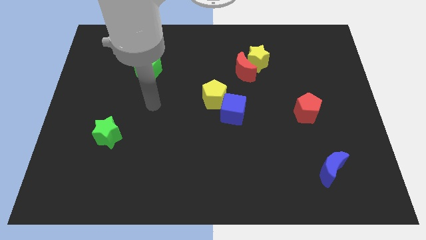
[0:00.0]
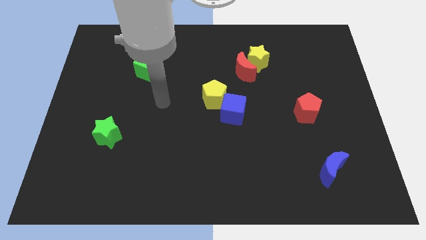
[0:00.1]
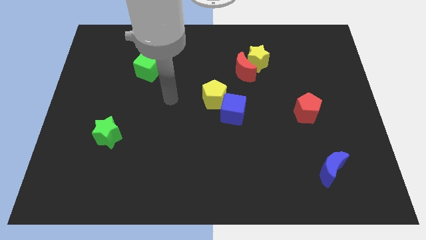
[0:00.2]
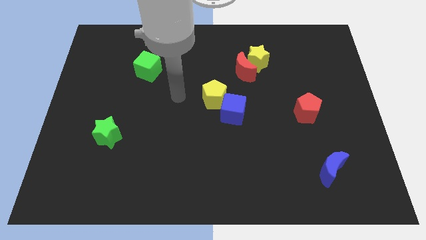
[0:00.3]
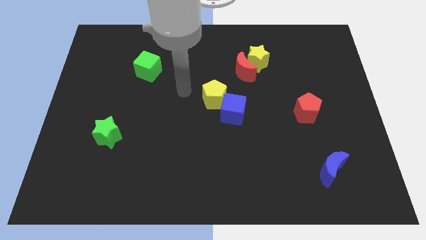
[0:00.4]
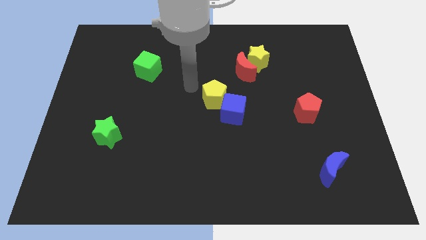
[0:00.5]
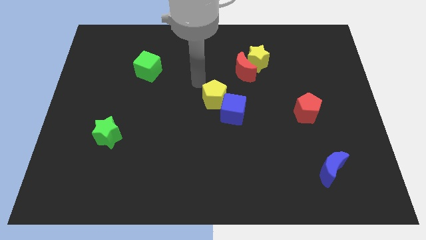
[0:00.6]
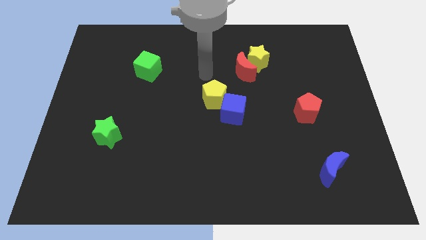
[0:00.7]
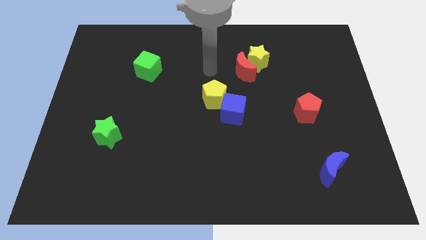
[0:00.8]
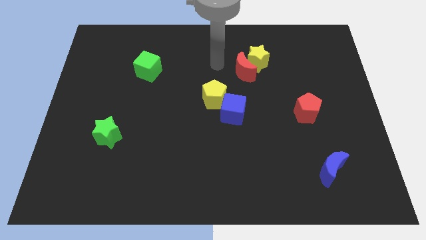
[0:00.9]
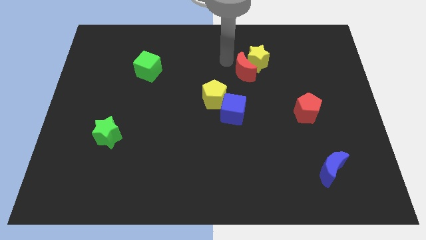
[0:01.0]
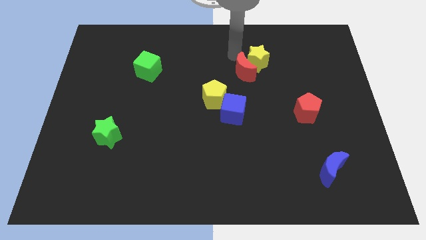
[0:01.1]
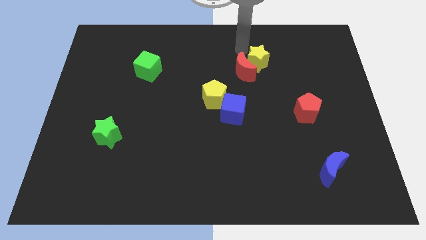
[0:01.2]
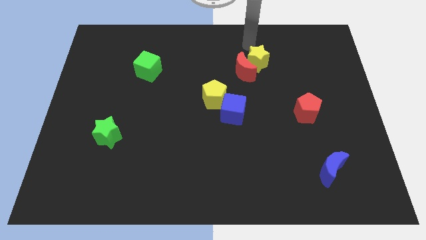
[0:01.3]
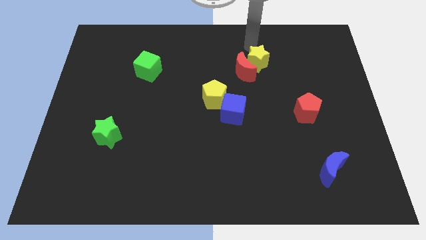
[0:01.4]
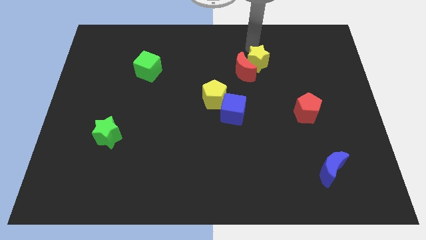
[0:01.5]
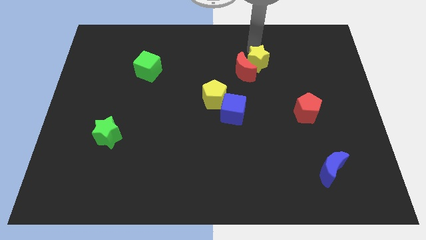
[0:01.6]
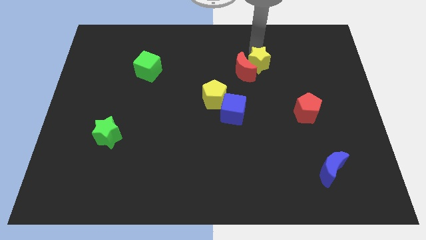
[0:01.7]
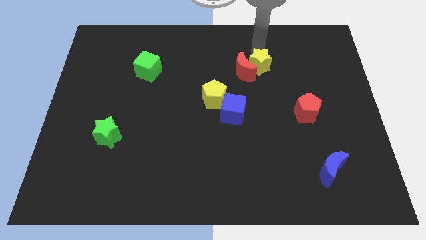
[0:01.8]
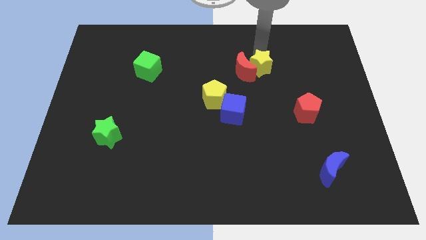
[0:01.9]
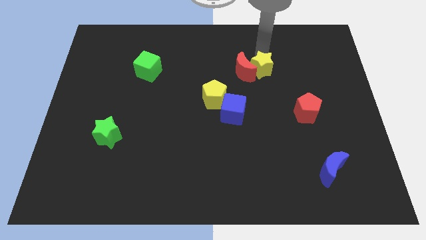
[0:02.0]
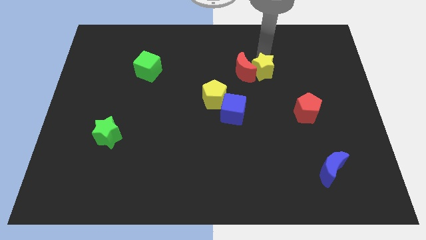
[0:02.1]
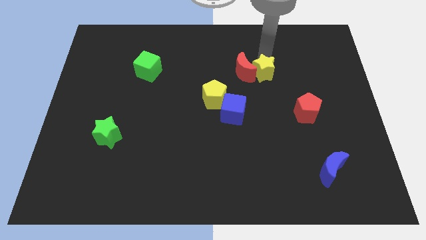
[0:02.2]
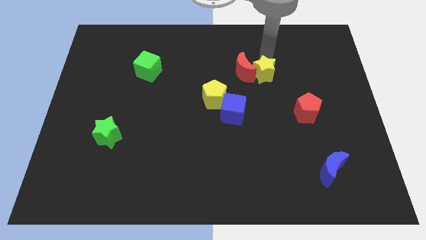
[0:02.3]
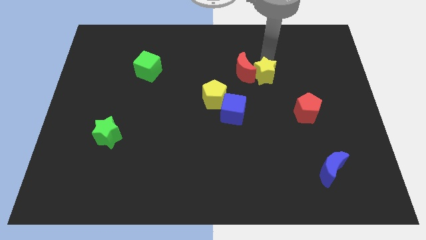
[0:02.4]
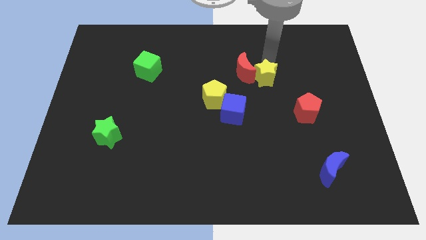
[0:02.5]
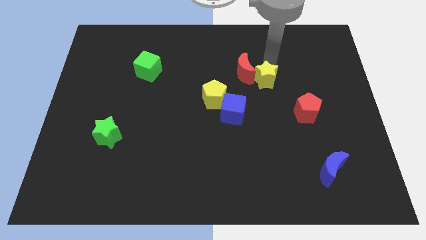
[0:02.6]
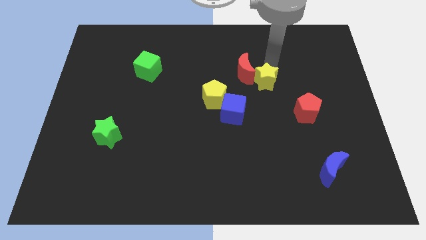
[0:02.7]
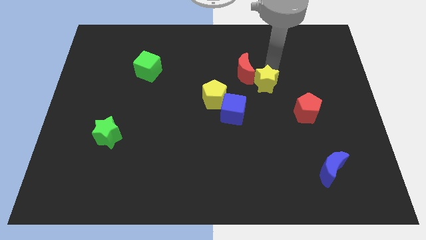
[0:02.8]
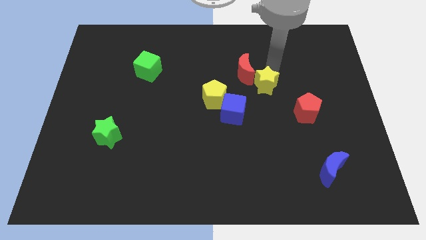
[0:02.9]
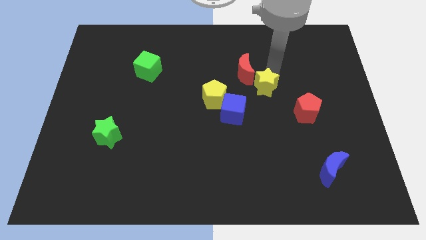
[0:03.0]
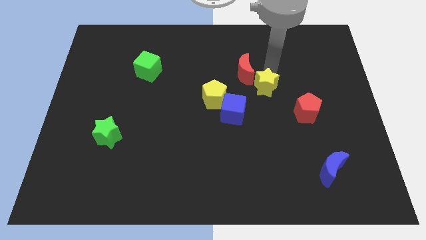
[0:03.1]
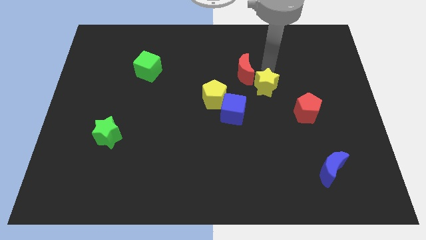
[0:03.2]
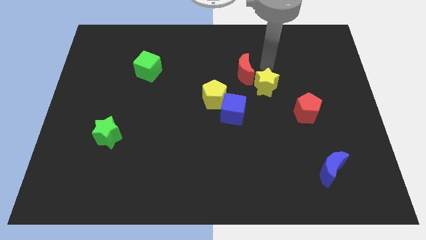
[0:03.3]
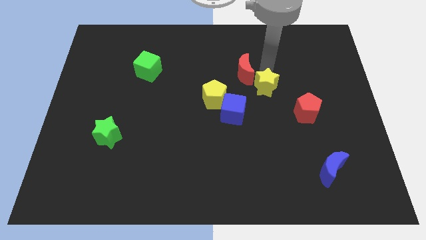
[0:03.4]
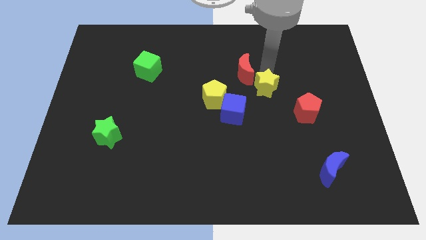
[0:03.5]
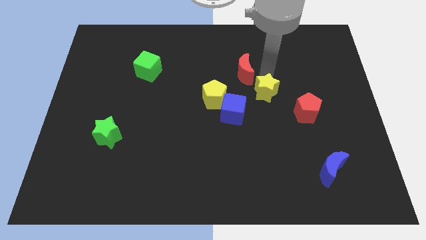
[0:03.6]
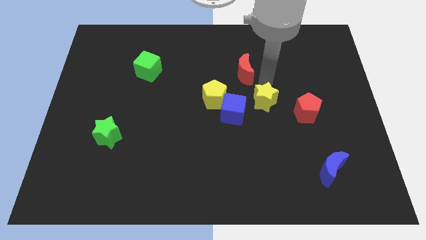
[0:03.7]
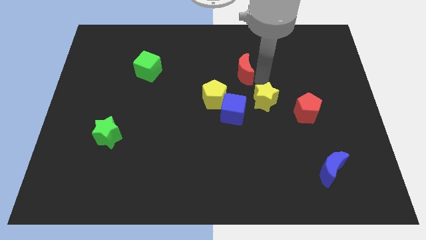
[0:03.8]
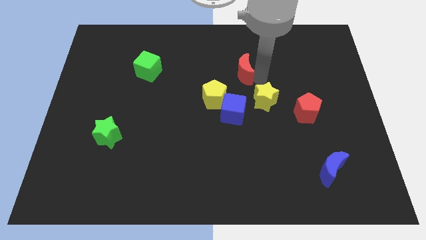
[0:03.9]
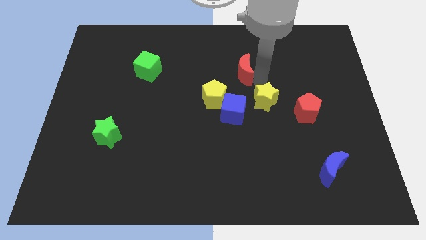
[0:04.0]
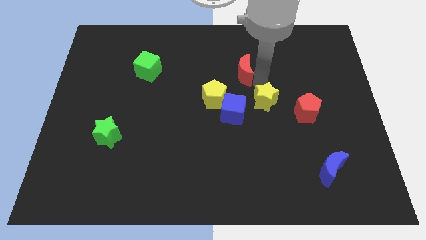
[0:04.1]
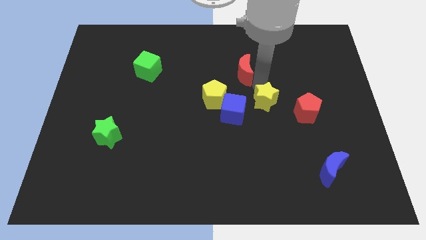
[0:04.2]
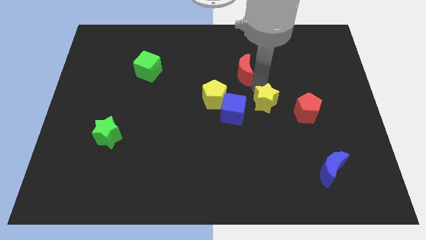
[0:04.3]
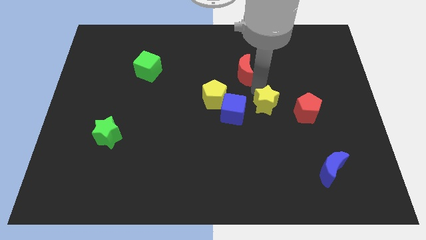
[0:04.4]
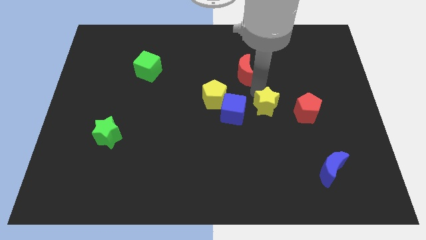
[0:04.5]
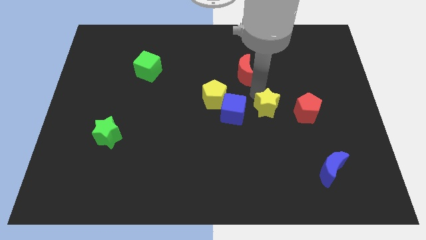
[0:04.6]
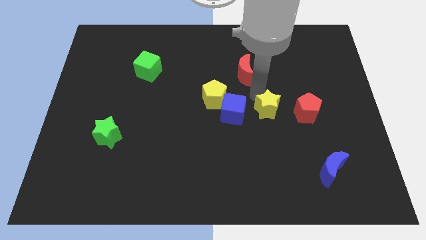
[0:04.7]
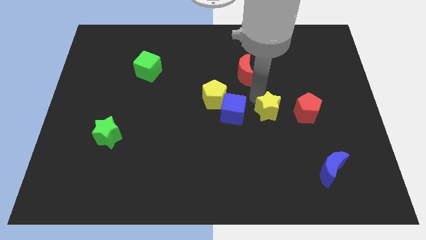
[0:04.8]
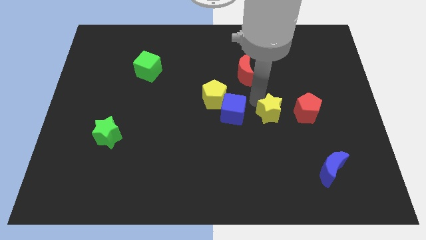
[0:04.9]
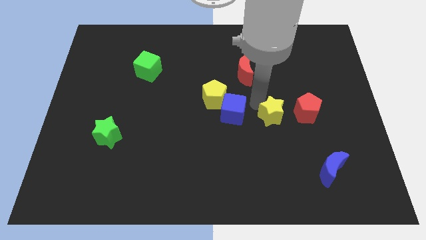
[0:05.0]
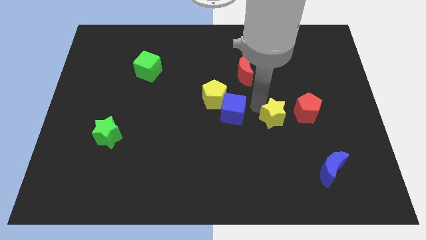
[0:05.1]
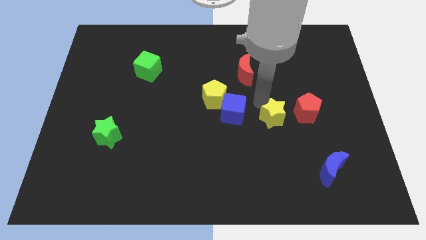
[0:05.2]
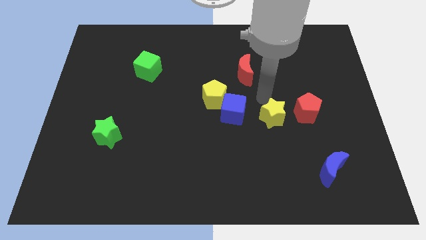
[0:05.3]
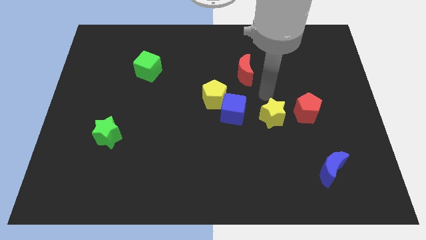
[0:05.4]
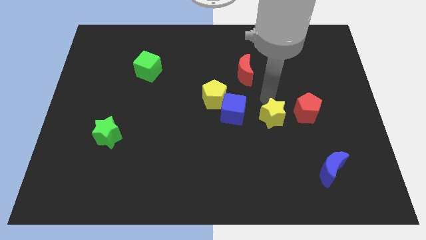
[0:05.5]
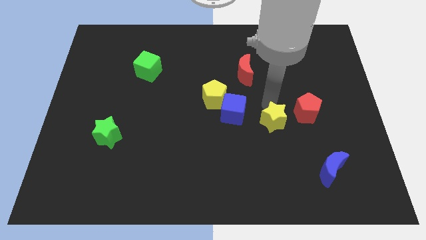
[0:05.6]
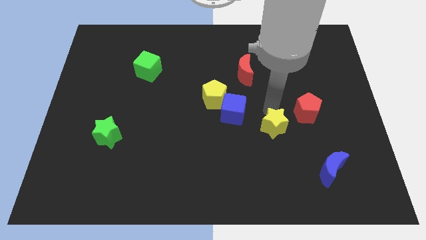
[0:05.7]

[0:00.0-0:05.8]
move the yellow star down

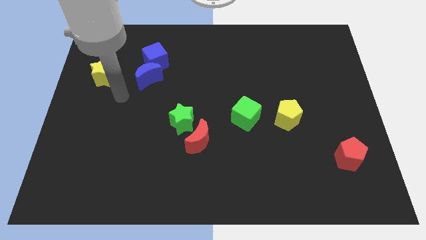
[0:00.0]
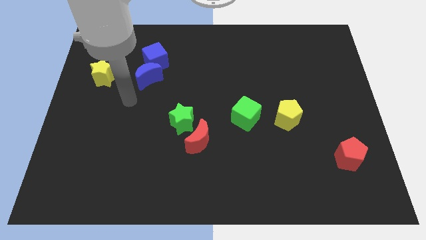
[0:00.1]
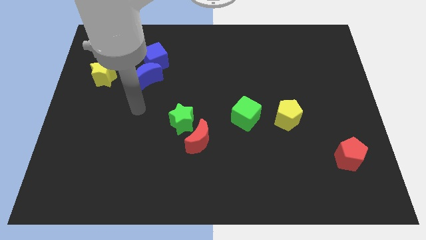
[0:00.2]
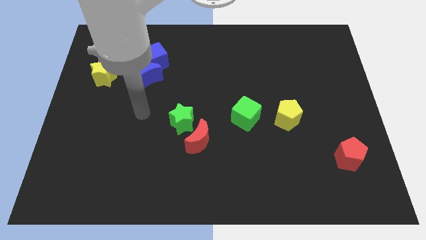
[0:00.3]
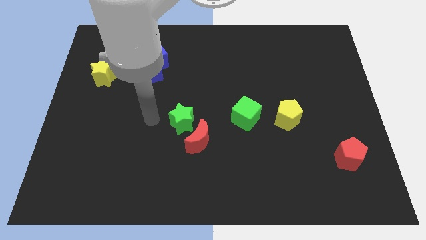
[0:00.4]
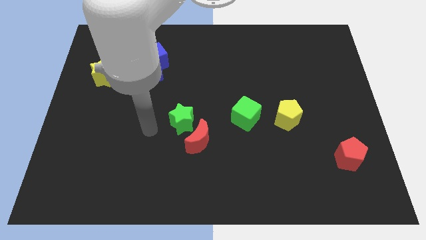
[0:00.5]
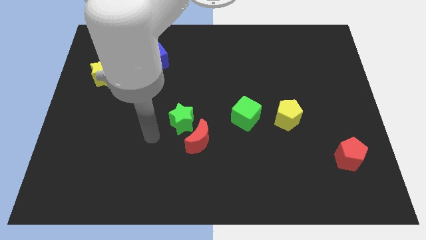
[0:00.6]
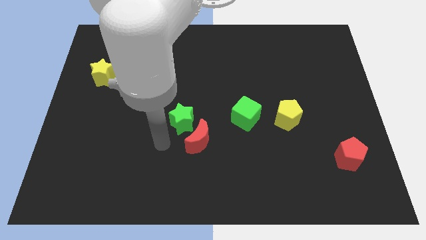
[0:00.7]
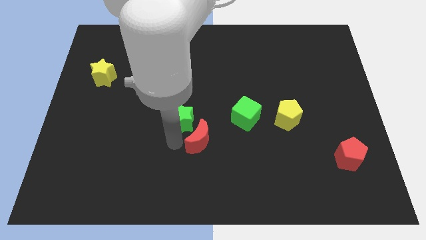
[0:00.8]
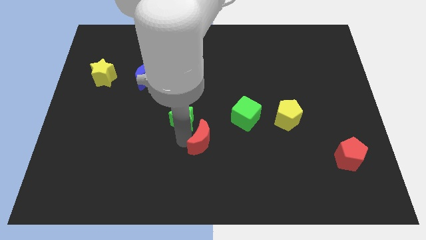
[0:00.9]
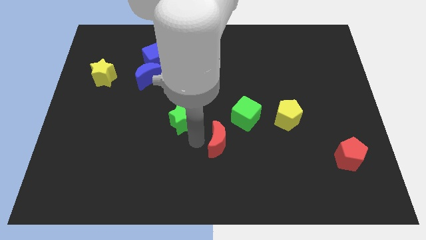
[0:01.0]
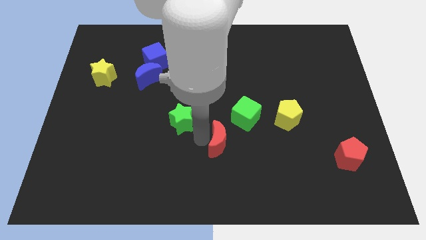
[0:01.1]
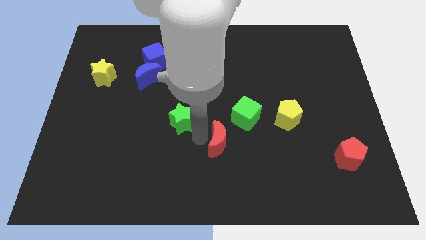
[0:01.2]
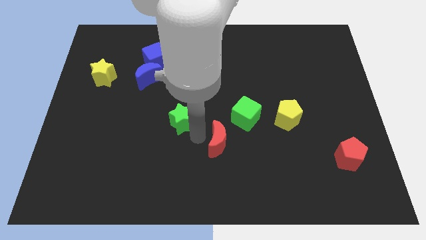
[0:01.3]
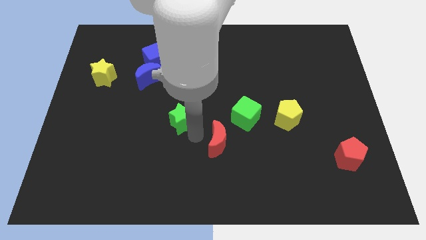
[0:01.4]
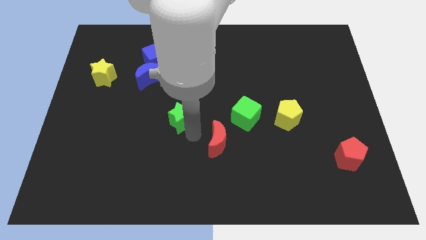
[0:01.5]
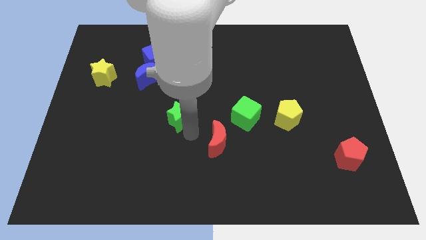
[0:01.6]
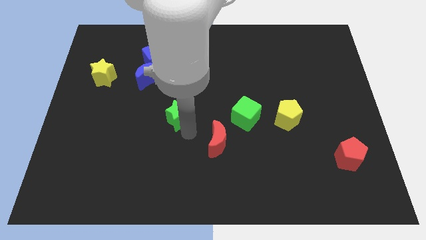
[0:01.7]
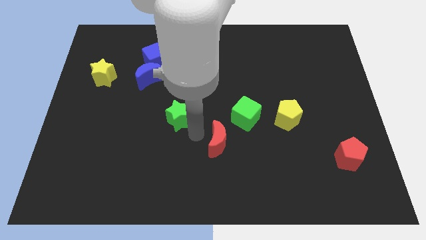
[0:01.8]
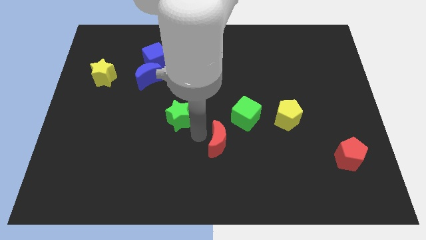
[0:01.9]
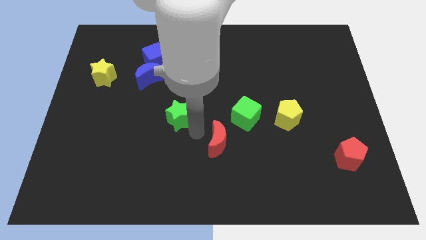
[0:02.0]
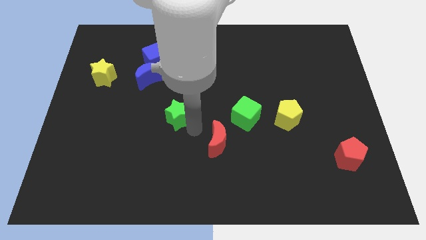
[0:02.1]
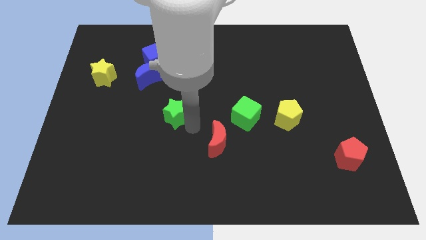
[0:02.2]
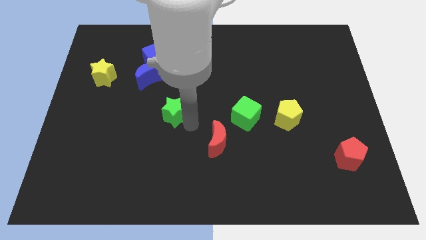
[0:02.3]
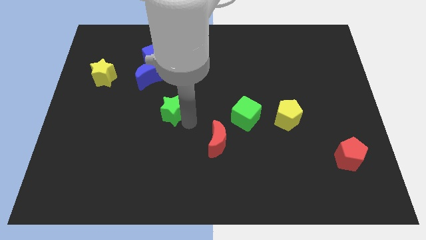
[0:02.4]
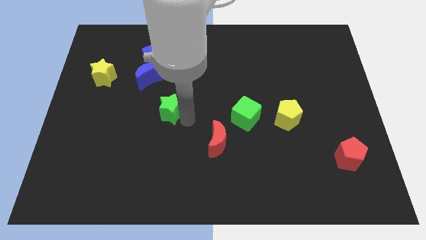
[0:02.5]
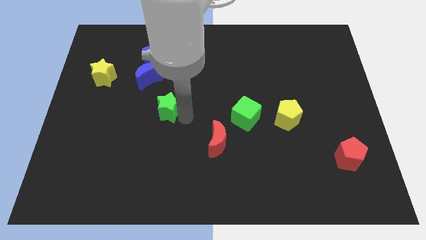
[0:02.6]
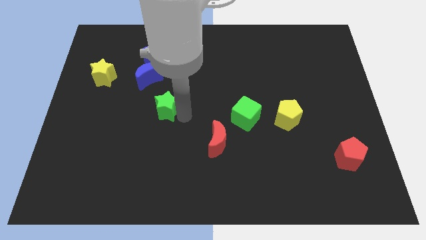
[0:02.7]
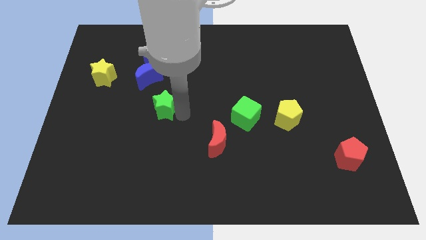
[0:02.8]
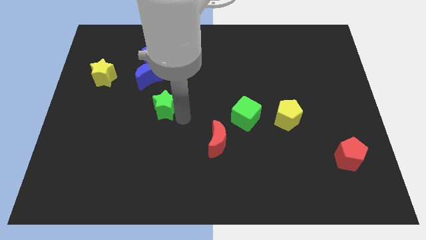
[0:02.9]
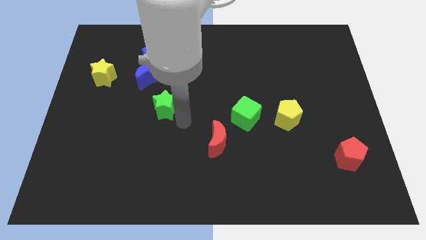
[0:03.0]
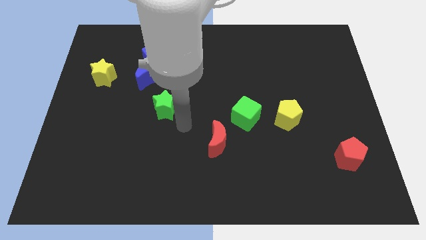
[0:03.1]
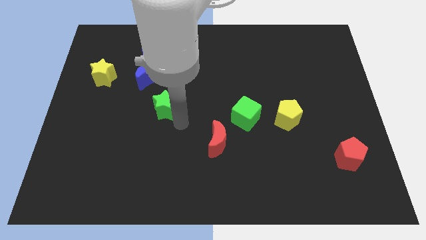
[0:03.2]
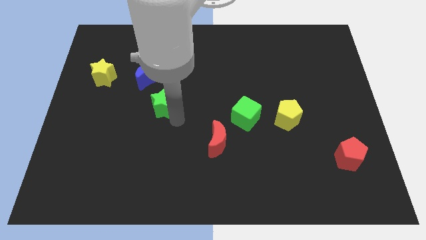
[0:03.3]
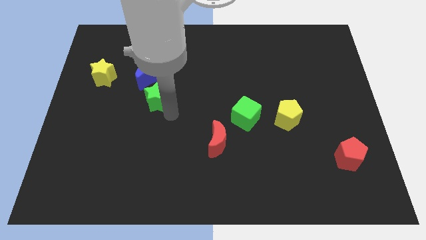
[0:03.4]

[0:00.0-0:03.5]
slide the green star upwards and to the left diagonally a bit
